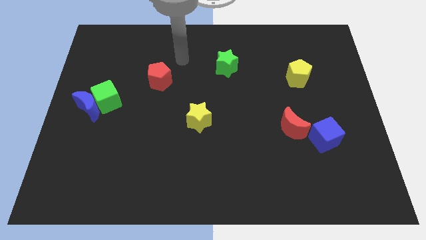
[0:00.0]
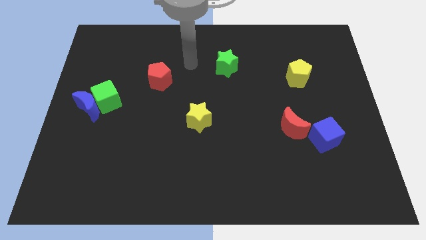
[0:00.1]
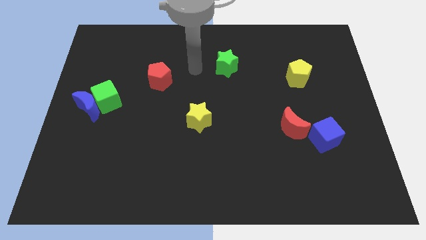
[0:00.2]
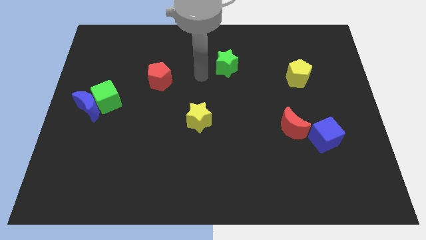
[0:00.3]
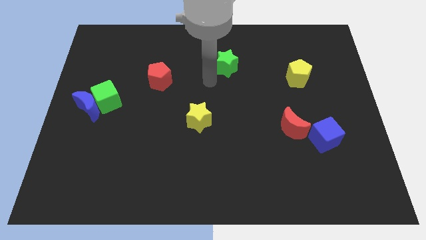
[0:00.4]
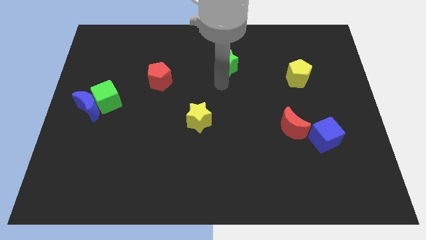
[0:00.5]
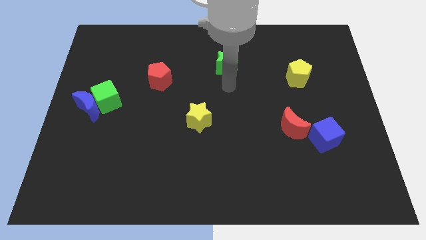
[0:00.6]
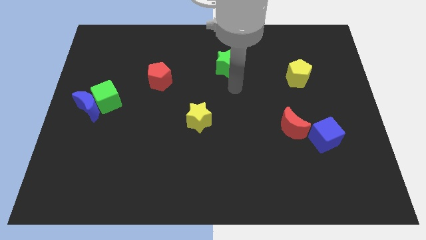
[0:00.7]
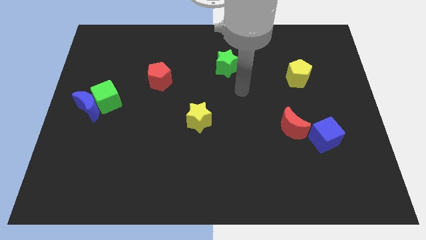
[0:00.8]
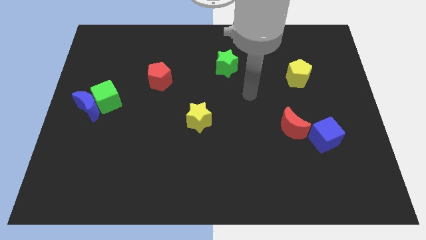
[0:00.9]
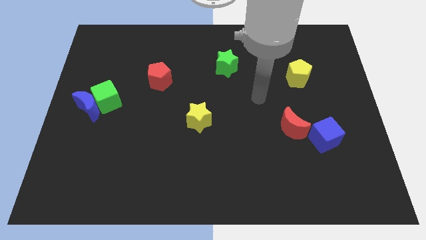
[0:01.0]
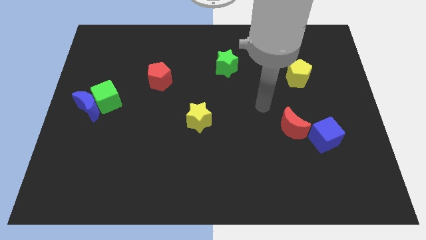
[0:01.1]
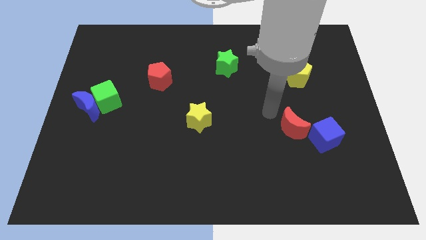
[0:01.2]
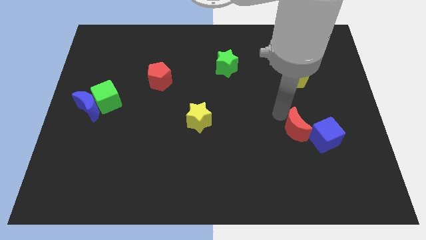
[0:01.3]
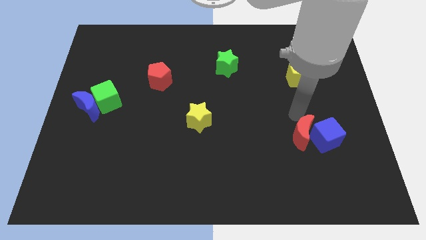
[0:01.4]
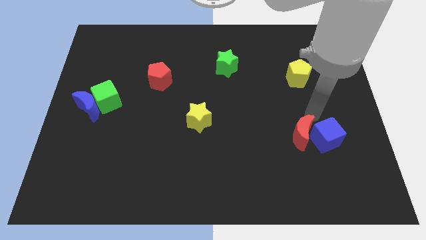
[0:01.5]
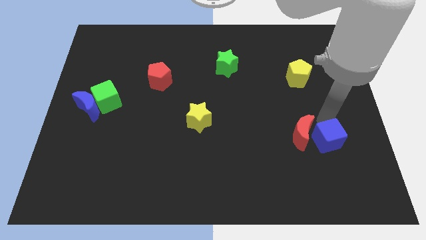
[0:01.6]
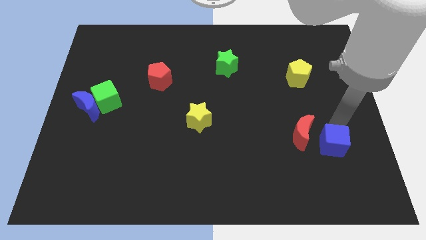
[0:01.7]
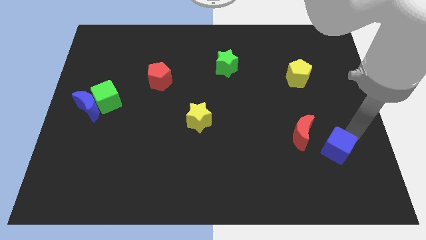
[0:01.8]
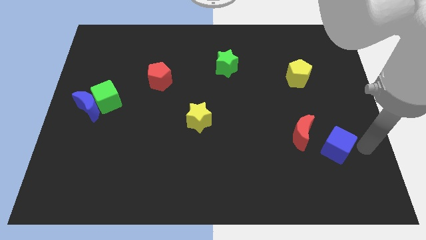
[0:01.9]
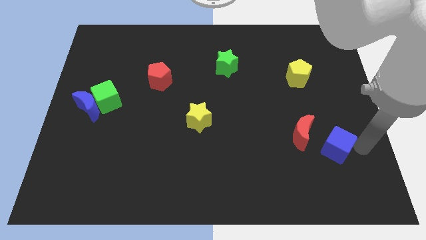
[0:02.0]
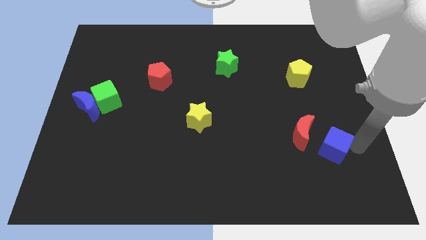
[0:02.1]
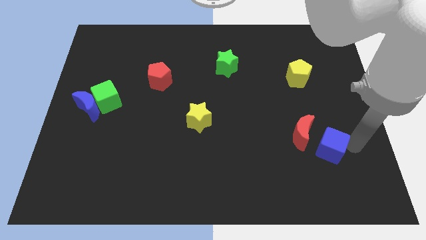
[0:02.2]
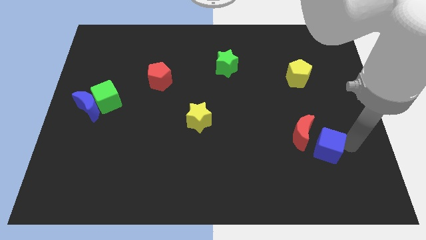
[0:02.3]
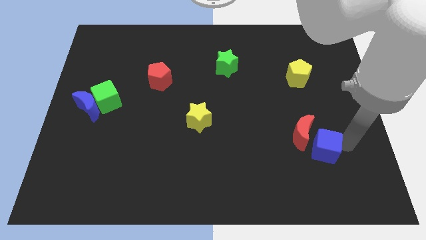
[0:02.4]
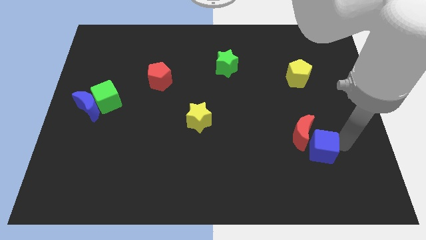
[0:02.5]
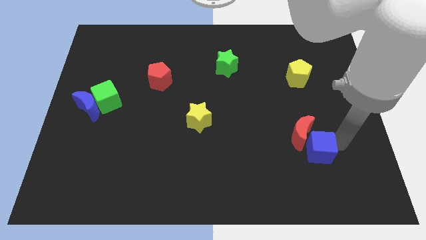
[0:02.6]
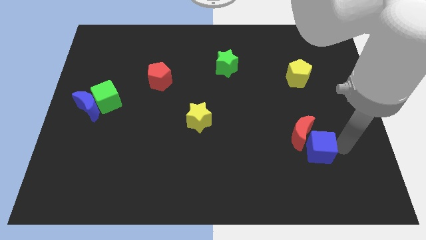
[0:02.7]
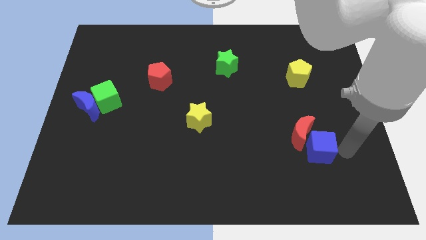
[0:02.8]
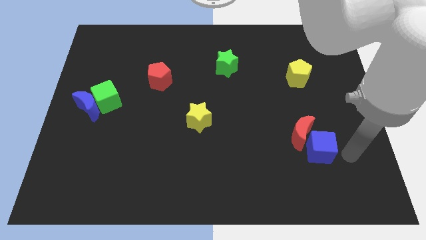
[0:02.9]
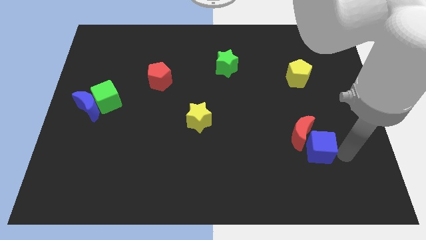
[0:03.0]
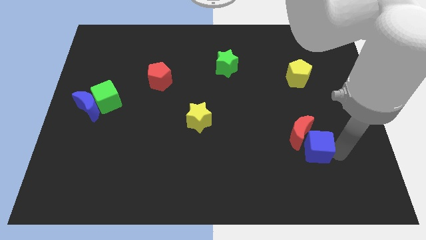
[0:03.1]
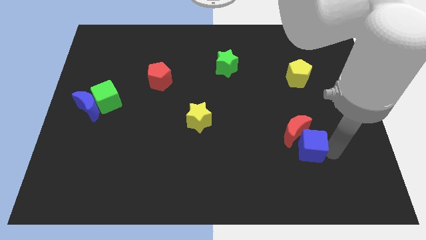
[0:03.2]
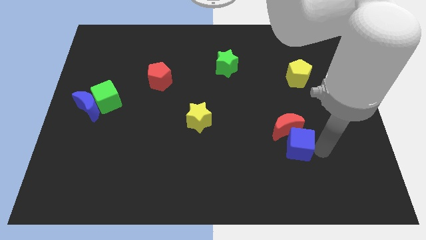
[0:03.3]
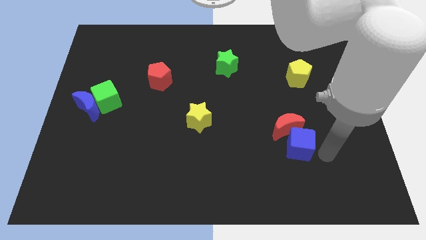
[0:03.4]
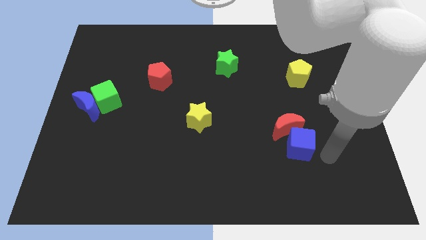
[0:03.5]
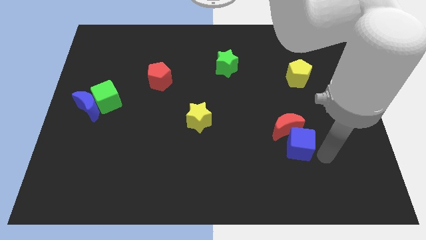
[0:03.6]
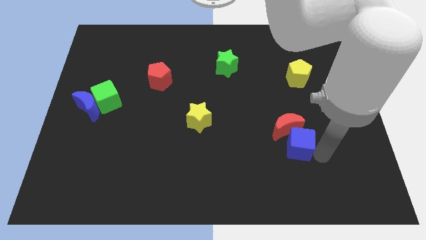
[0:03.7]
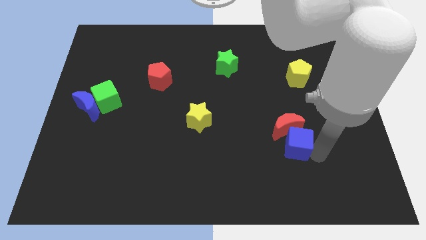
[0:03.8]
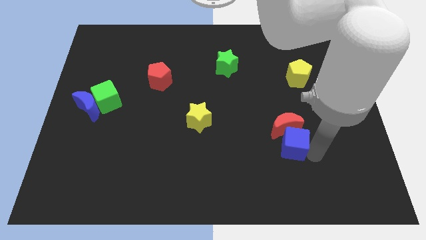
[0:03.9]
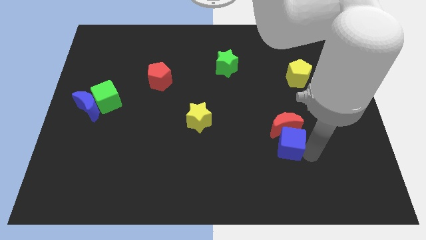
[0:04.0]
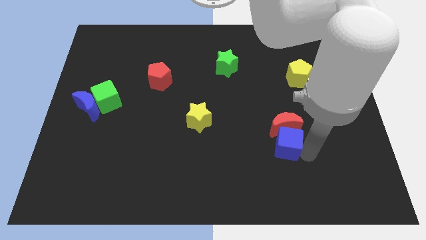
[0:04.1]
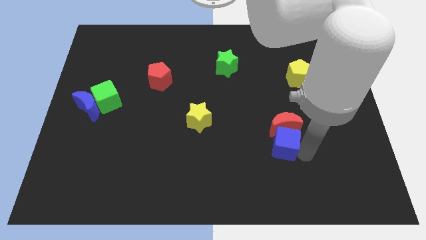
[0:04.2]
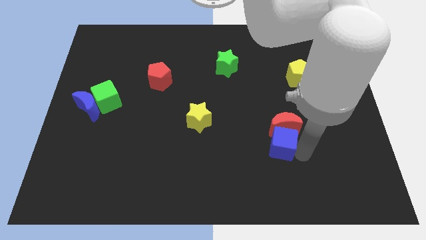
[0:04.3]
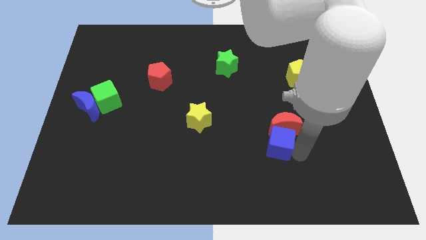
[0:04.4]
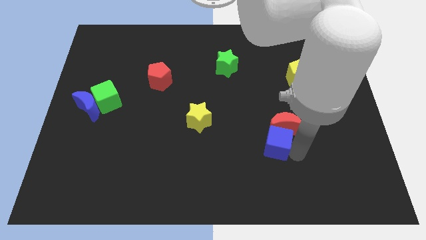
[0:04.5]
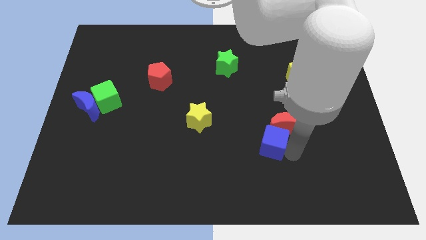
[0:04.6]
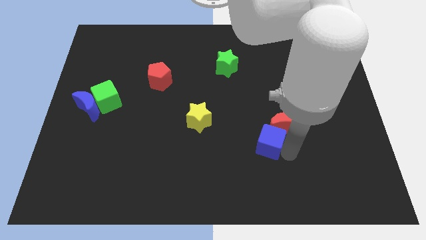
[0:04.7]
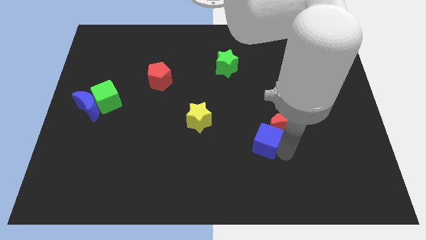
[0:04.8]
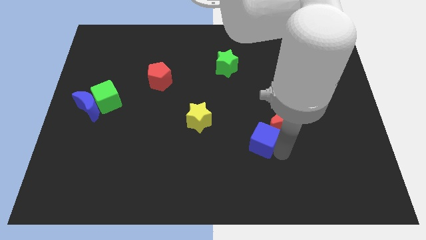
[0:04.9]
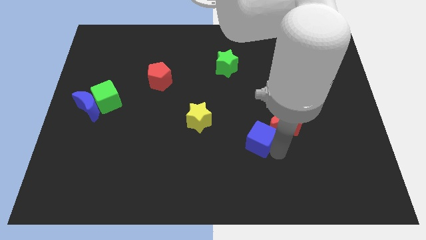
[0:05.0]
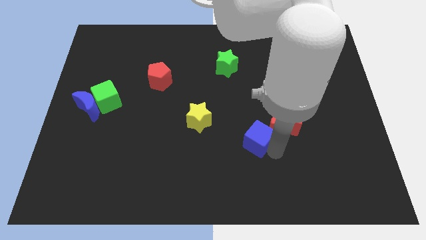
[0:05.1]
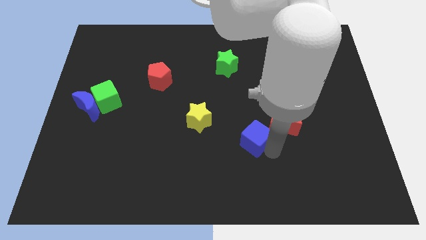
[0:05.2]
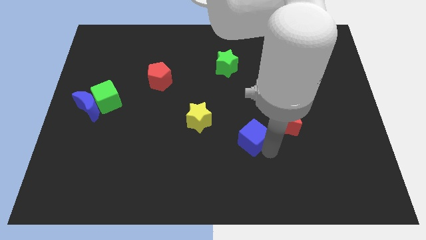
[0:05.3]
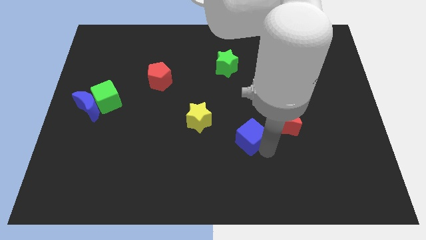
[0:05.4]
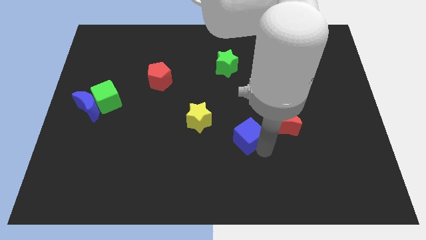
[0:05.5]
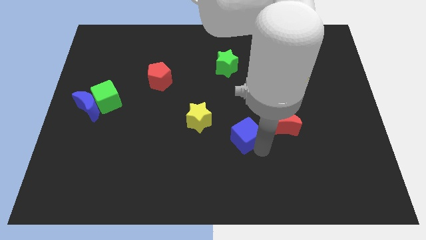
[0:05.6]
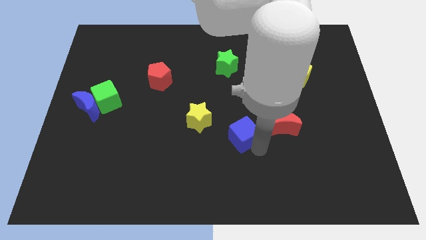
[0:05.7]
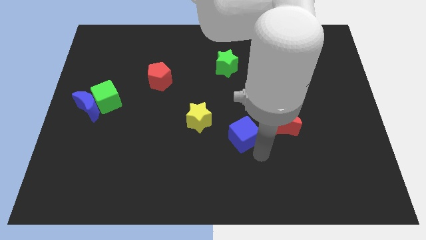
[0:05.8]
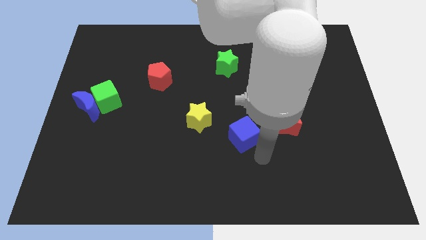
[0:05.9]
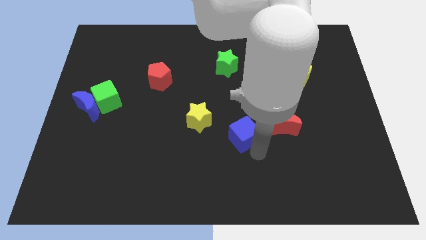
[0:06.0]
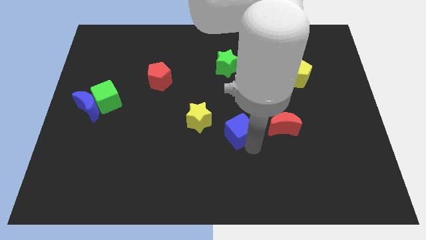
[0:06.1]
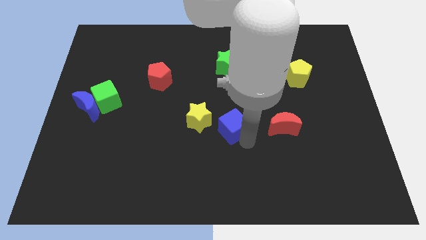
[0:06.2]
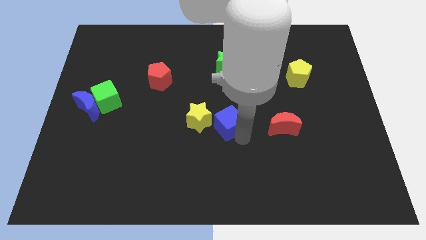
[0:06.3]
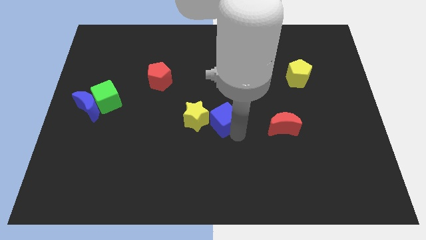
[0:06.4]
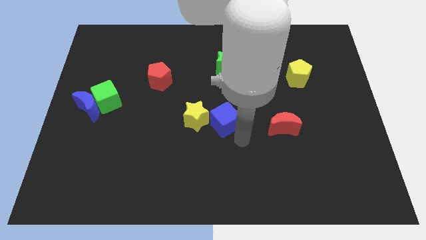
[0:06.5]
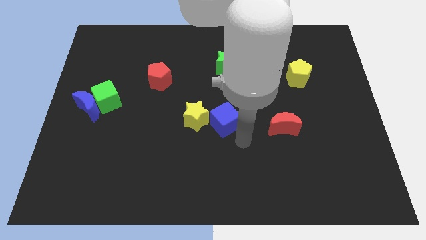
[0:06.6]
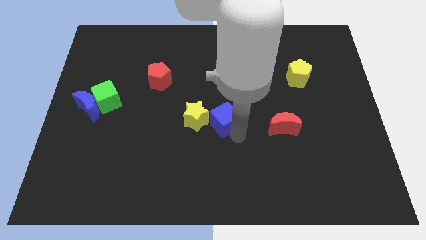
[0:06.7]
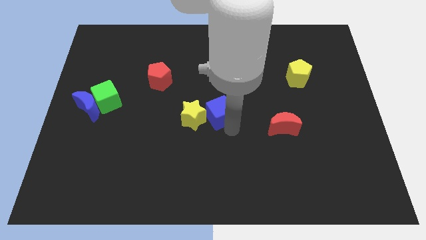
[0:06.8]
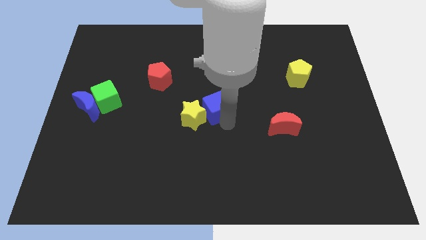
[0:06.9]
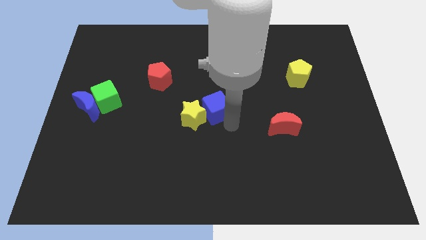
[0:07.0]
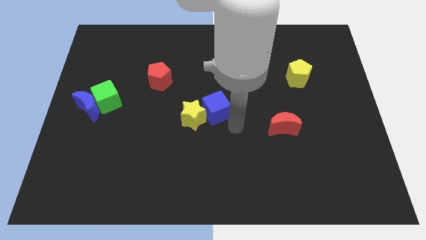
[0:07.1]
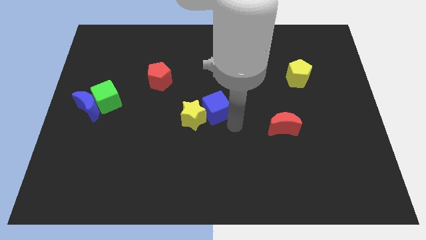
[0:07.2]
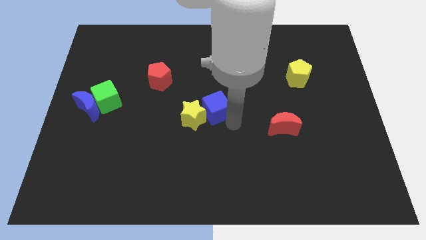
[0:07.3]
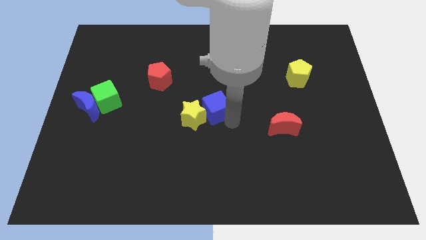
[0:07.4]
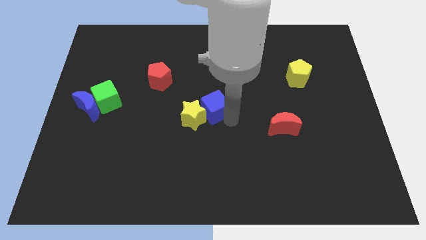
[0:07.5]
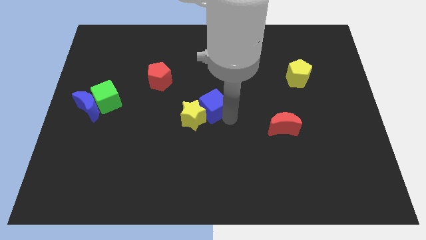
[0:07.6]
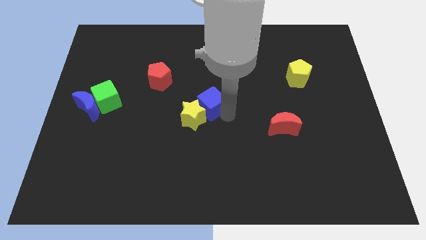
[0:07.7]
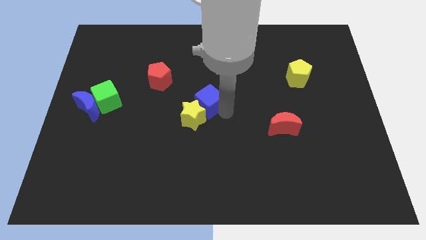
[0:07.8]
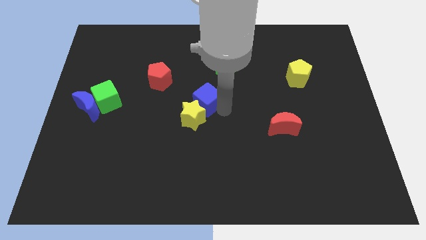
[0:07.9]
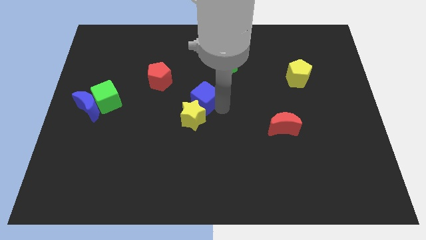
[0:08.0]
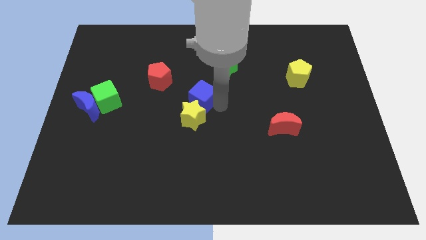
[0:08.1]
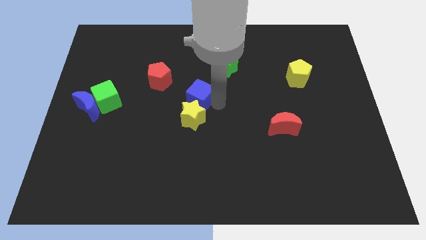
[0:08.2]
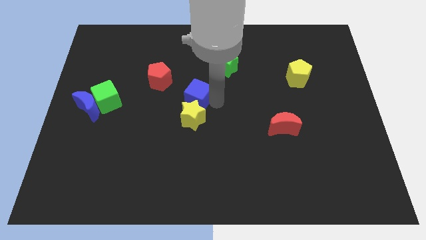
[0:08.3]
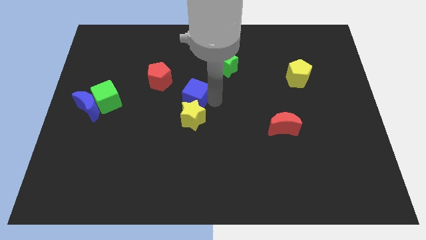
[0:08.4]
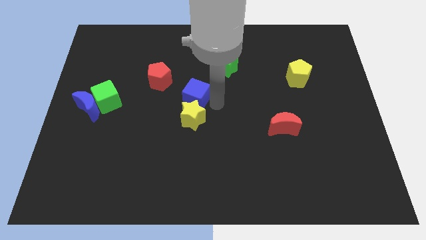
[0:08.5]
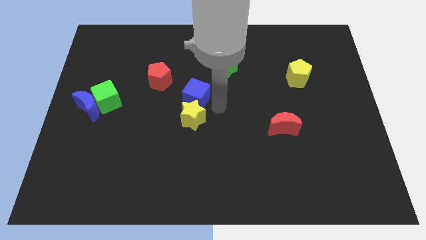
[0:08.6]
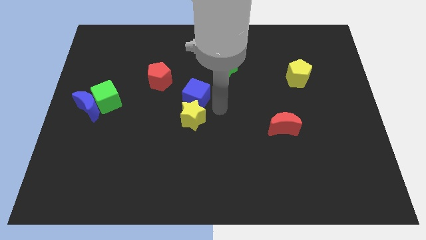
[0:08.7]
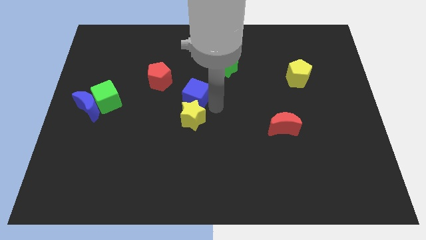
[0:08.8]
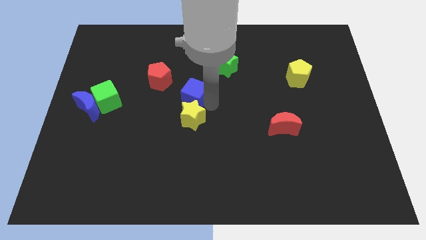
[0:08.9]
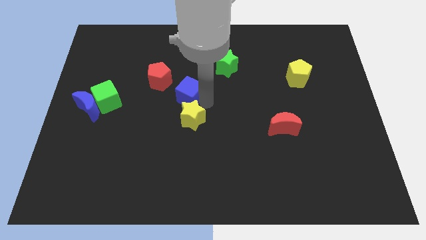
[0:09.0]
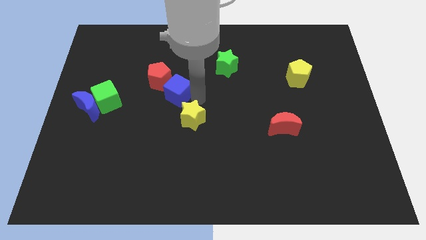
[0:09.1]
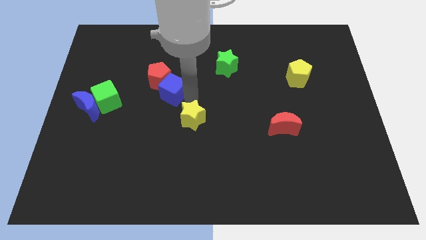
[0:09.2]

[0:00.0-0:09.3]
put the blue cube to the red pentagon
